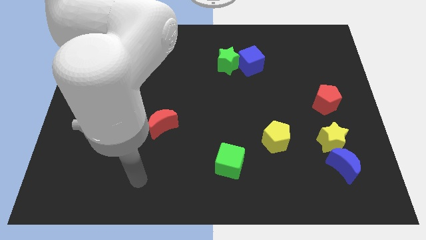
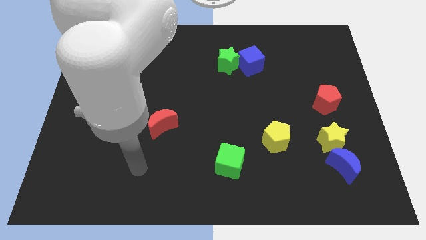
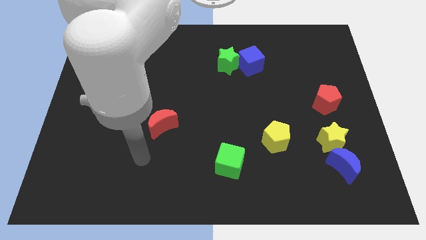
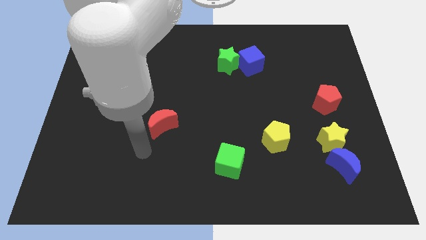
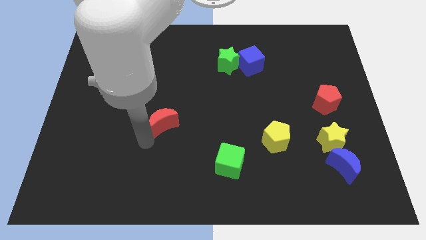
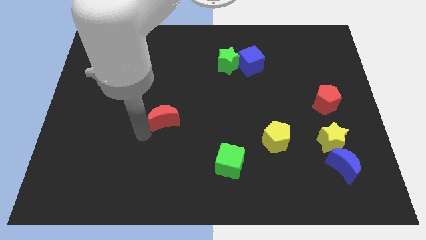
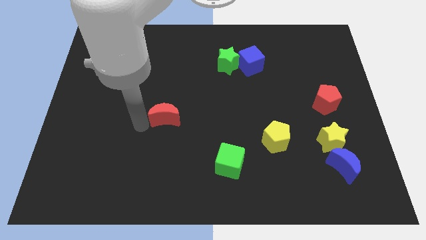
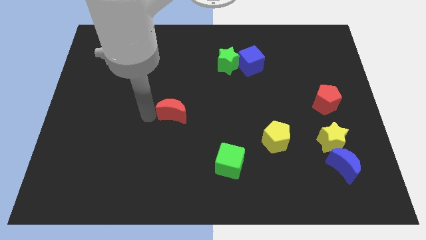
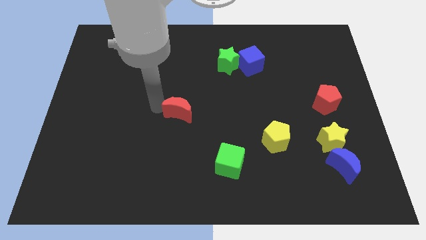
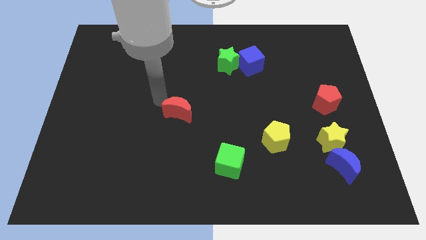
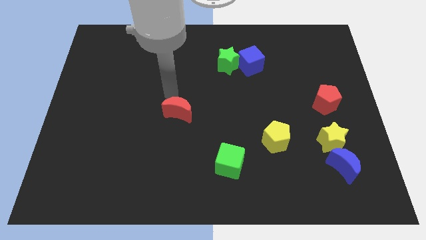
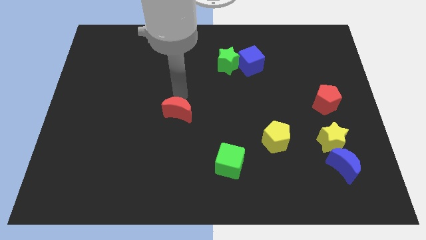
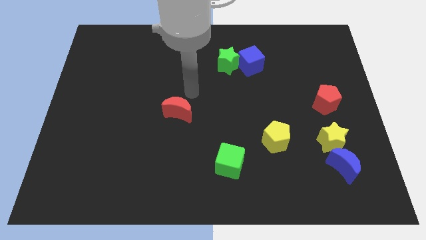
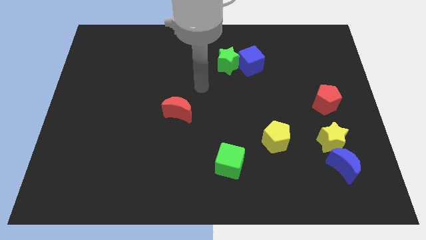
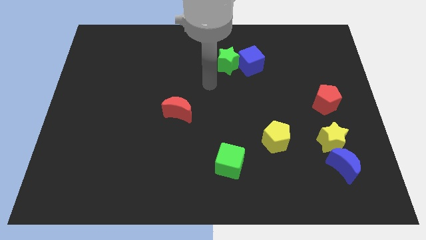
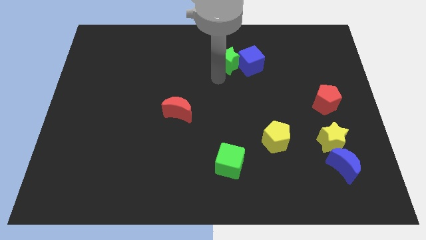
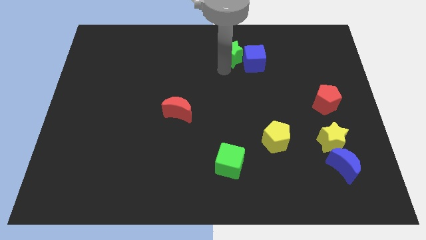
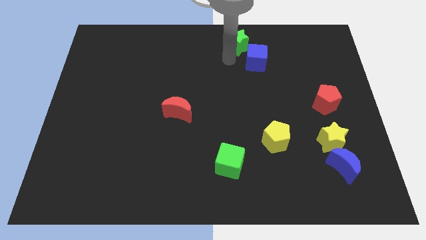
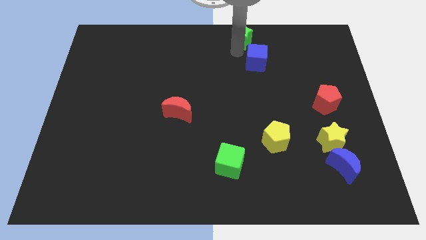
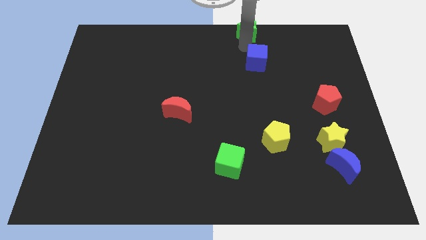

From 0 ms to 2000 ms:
pull the blue cube apart from the green star

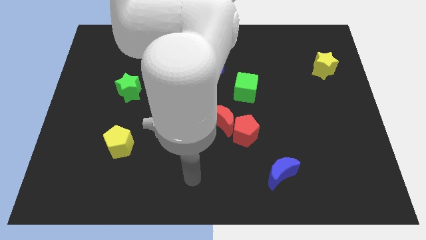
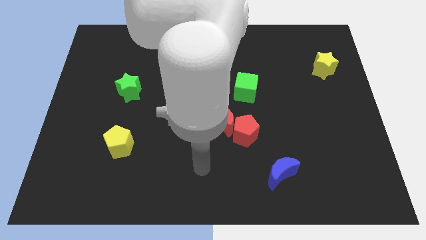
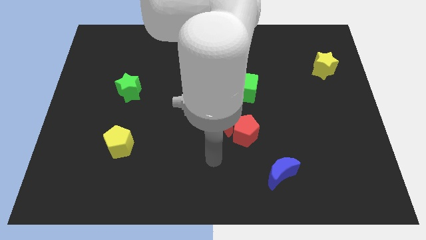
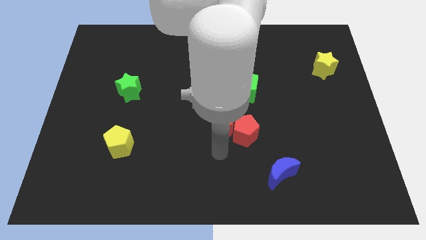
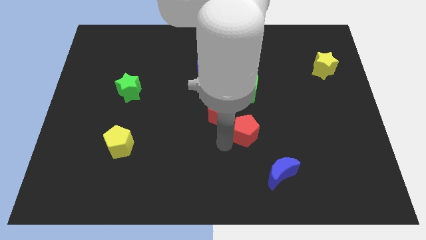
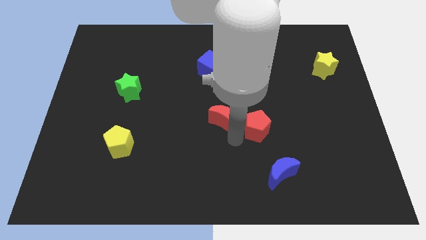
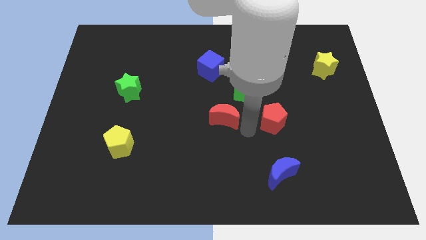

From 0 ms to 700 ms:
separate the red moon from the red pentagon

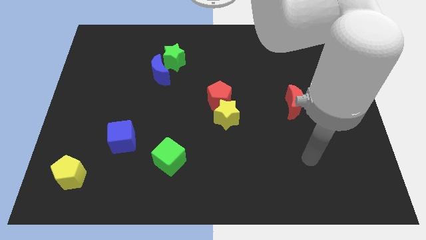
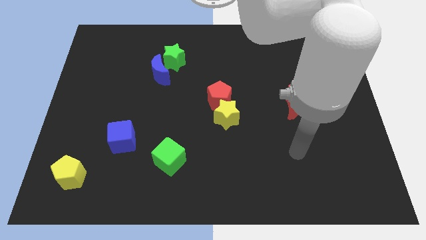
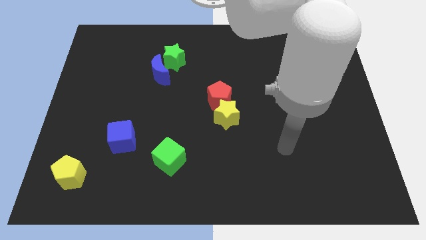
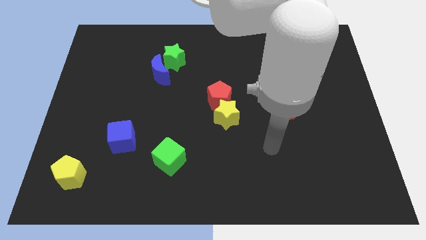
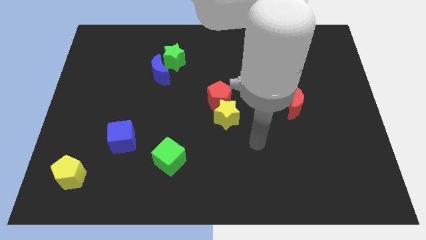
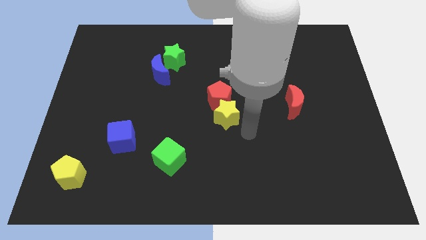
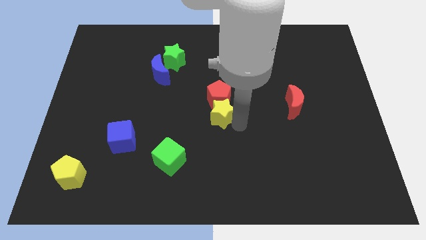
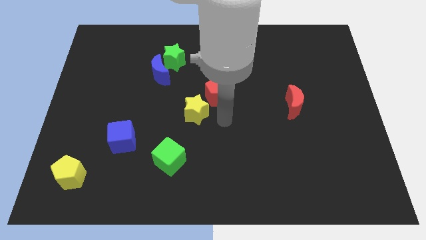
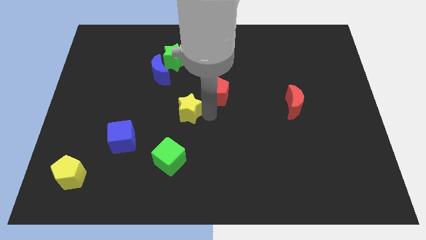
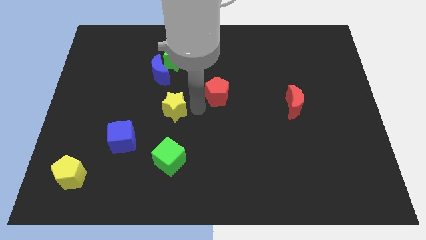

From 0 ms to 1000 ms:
separate the red pentagon from the yellow star

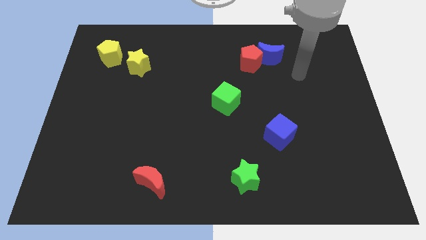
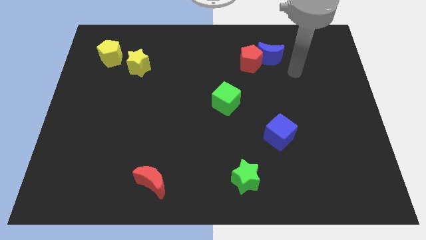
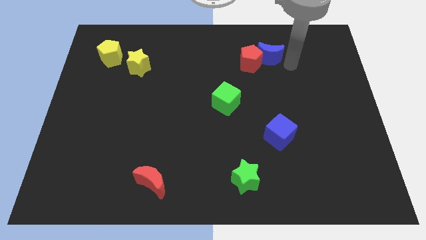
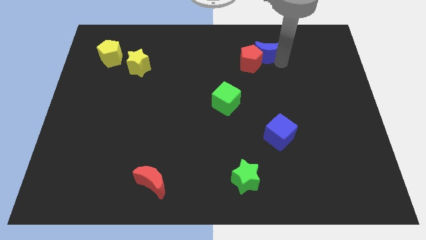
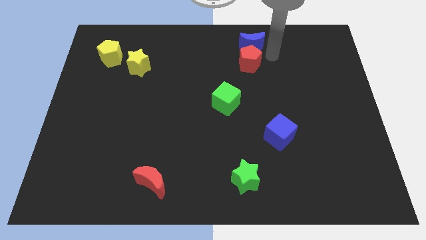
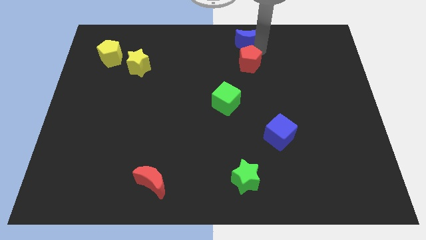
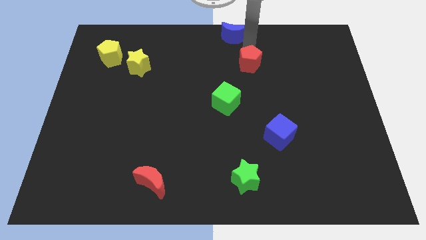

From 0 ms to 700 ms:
pull the red pentagon apart from the blue moon

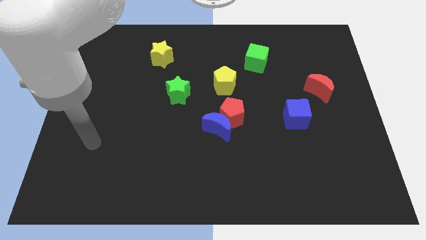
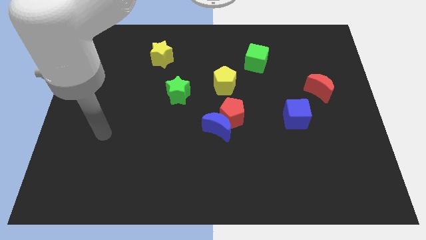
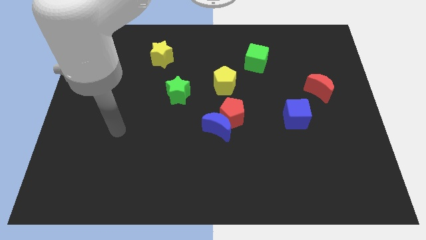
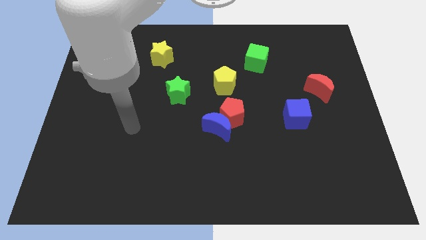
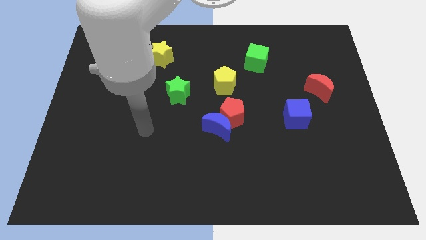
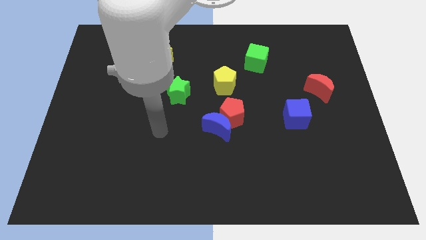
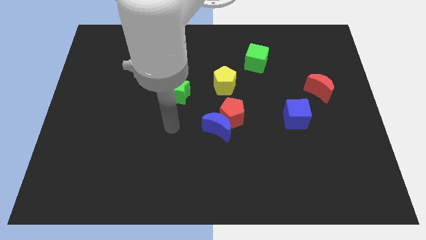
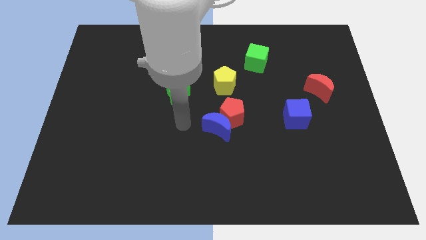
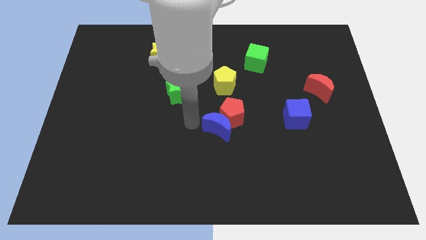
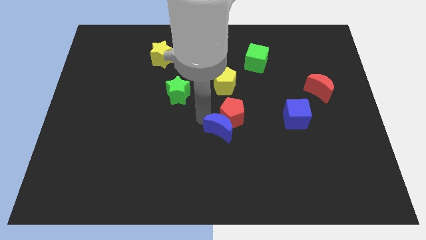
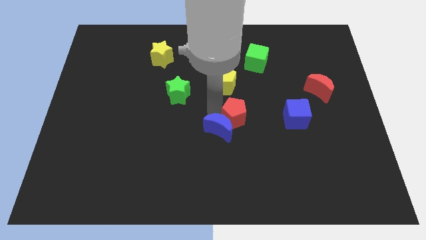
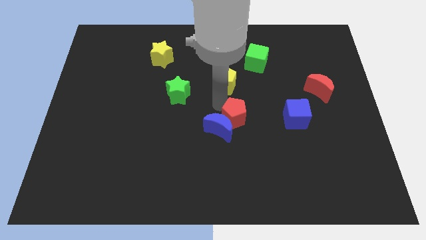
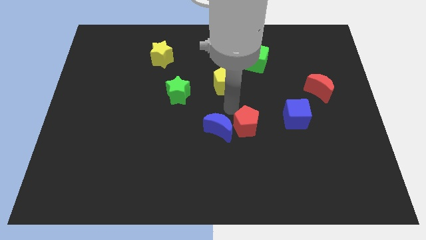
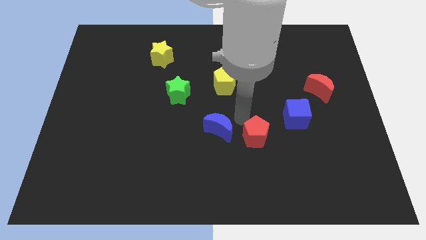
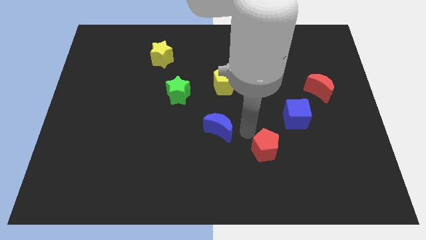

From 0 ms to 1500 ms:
separate the blue moon from the red pentagon

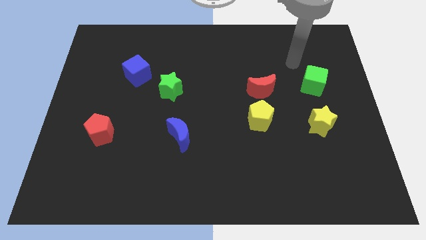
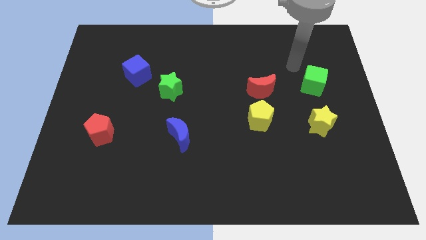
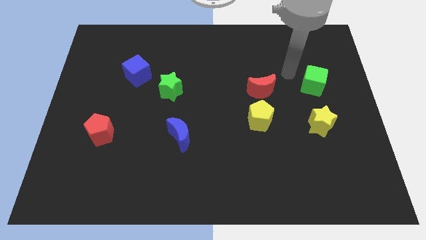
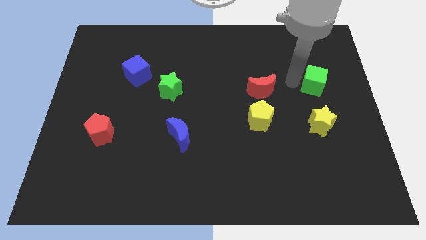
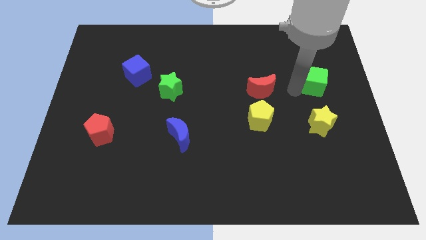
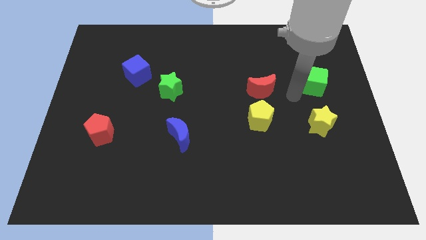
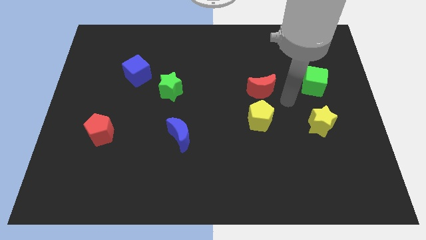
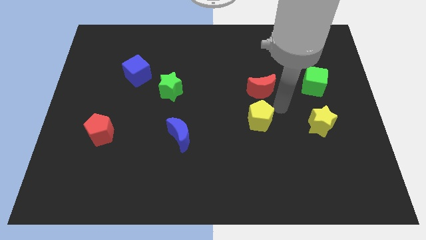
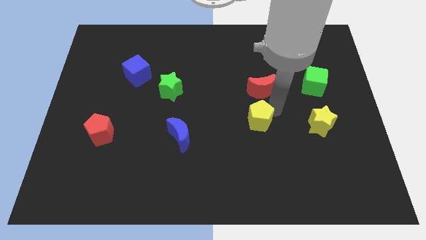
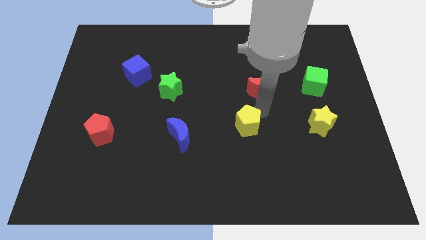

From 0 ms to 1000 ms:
pull the red moon apart from the yellow pentagon

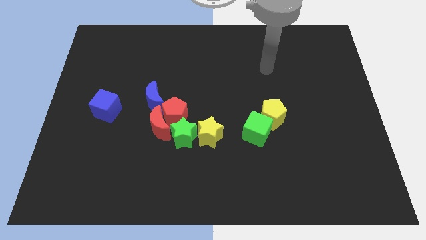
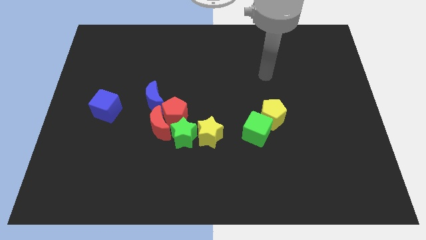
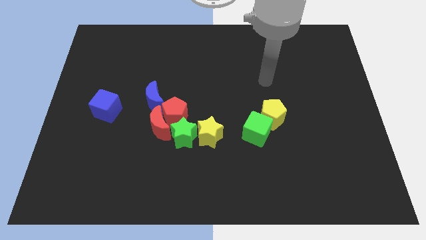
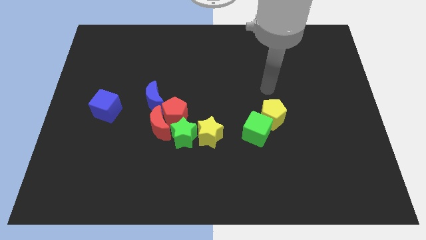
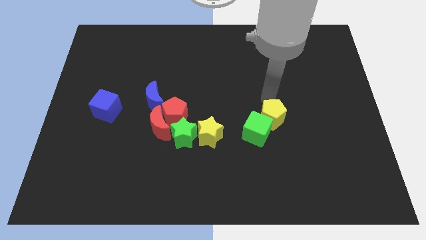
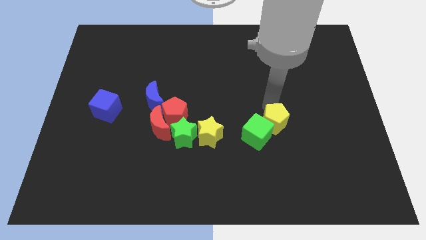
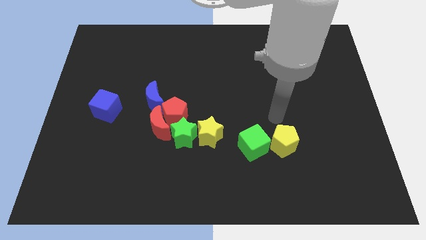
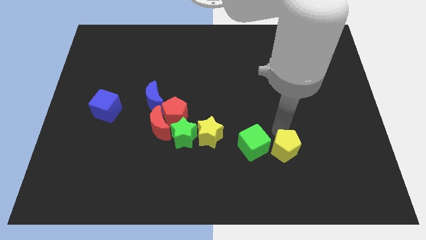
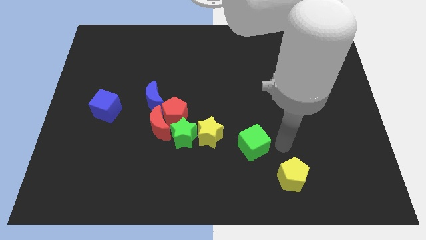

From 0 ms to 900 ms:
move the green cube away from the yellow pentagon

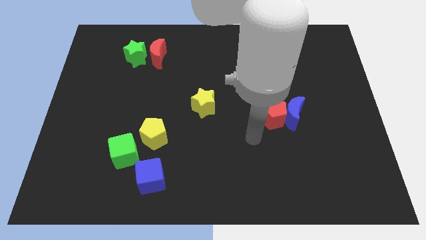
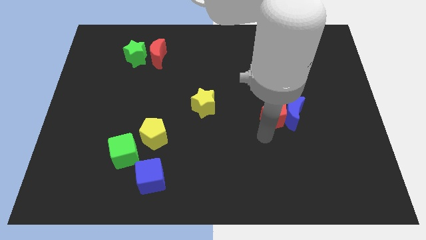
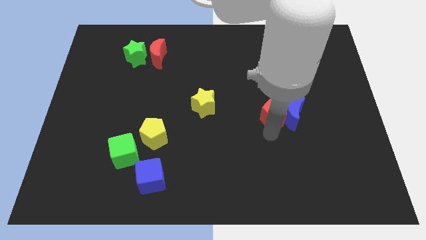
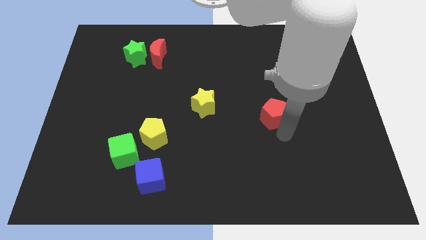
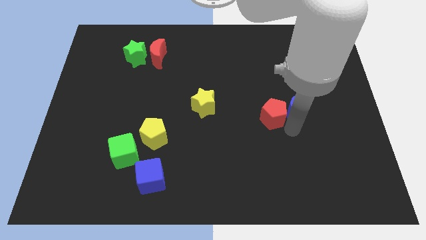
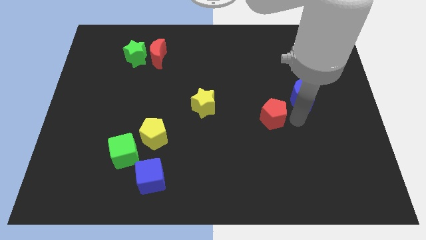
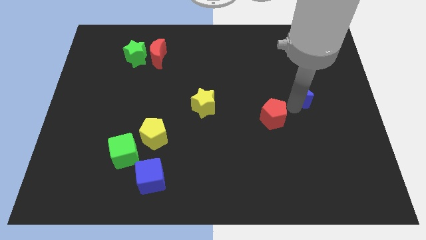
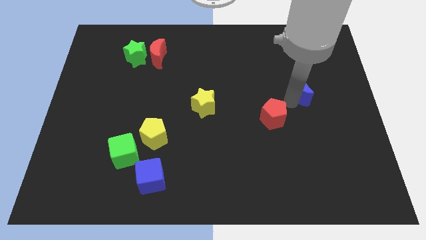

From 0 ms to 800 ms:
separate the red pentagon from the blue moon

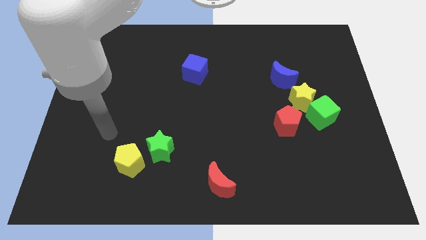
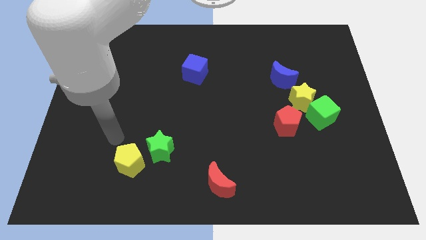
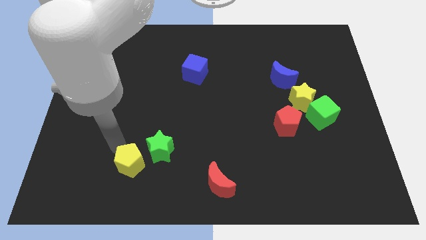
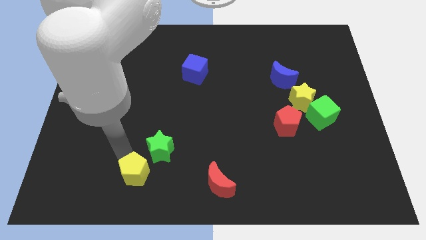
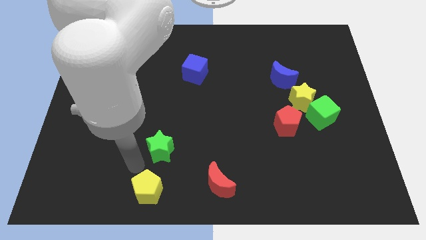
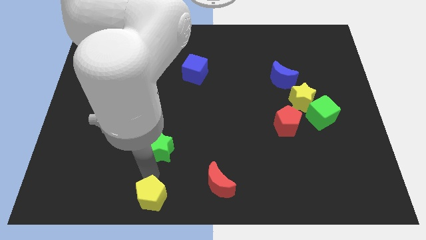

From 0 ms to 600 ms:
pull the green star apart from the yellow pentagon
